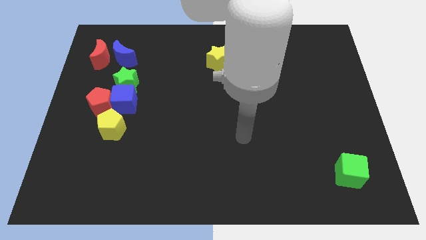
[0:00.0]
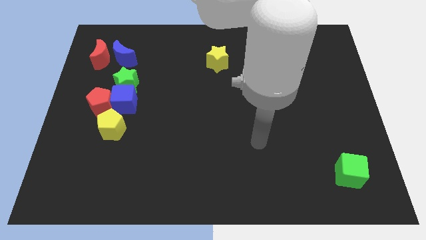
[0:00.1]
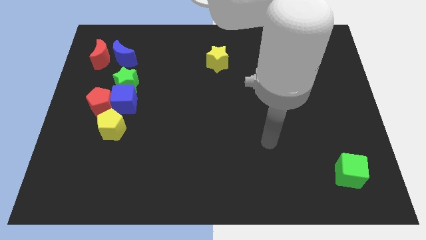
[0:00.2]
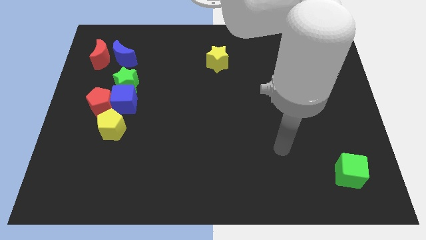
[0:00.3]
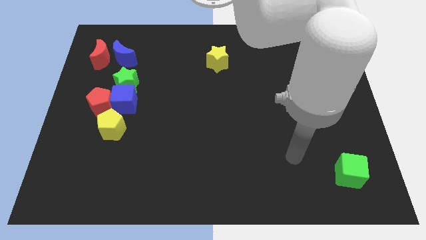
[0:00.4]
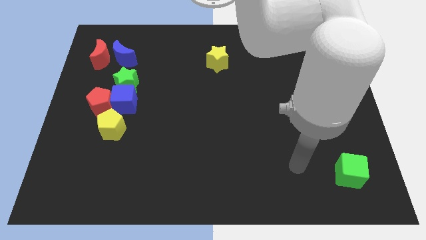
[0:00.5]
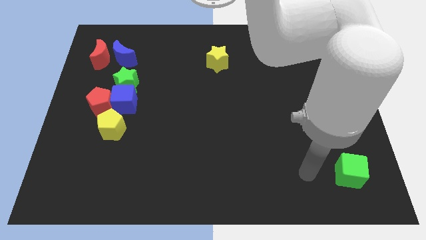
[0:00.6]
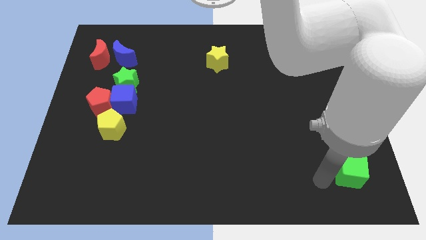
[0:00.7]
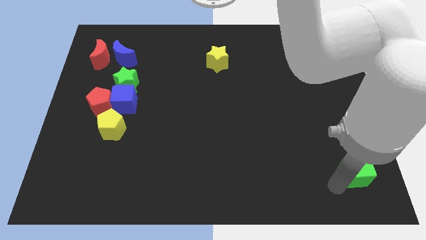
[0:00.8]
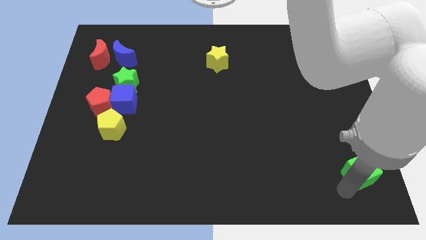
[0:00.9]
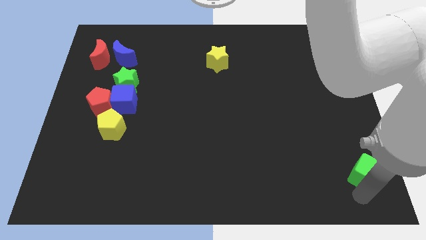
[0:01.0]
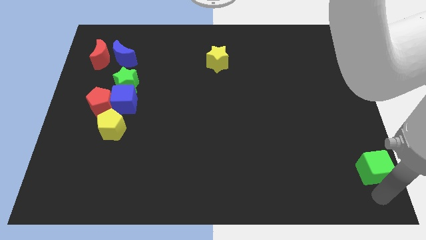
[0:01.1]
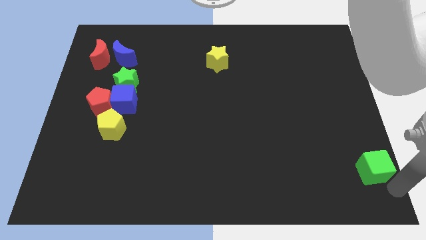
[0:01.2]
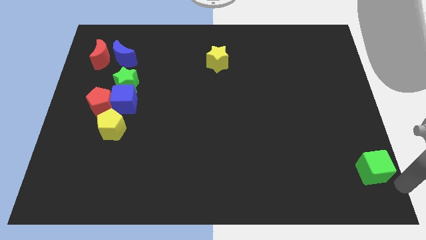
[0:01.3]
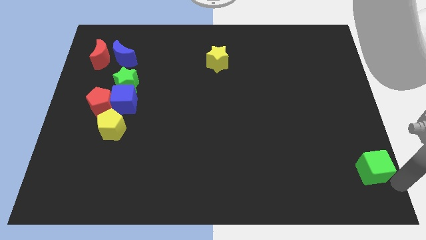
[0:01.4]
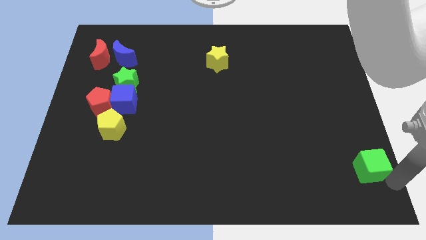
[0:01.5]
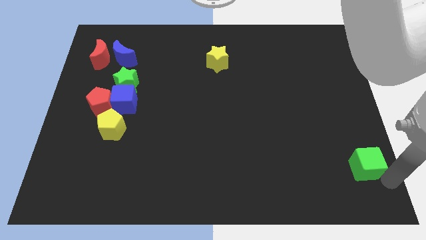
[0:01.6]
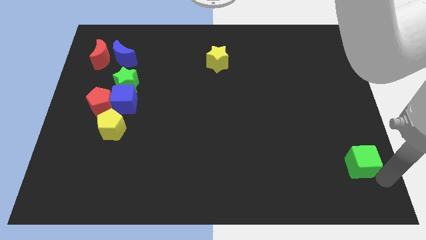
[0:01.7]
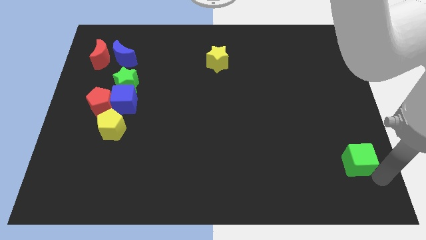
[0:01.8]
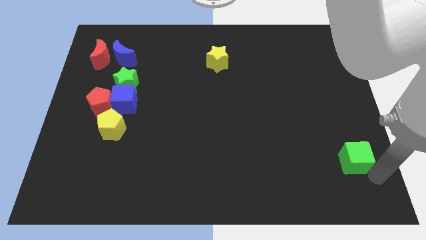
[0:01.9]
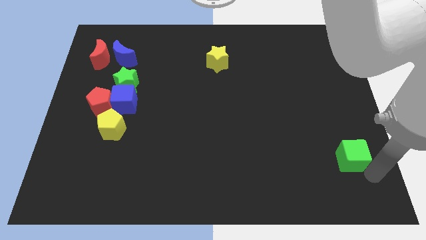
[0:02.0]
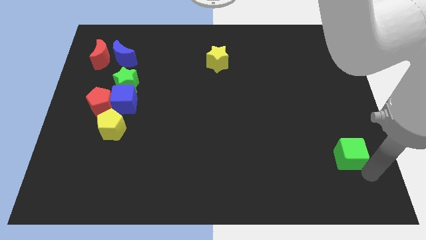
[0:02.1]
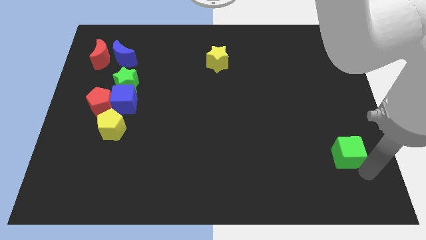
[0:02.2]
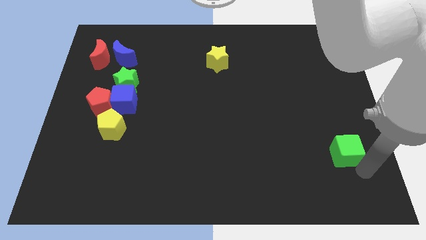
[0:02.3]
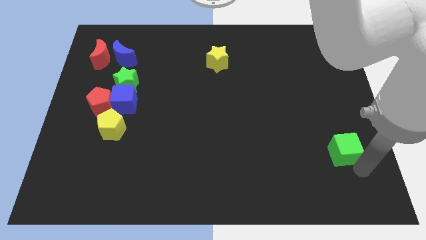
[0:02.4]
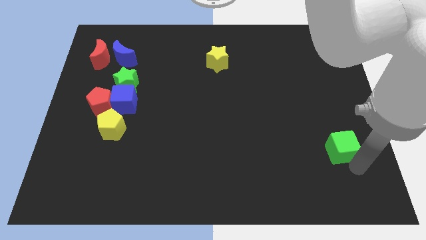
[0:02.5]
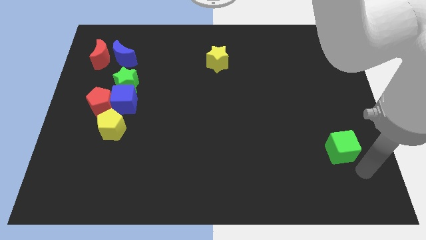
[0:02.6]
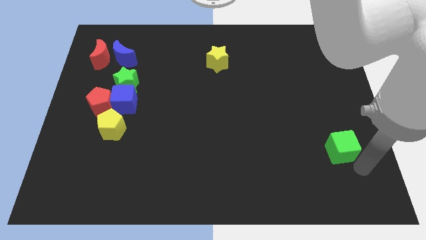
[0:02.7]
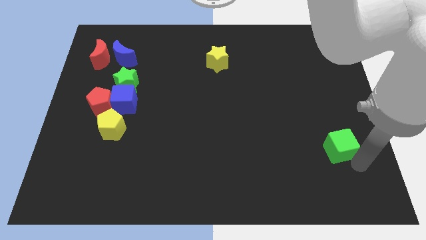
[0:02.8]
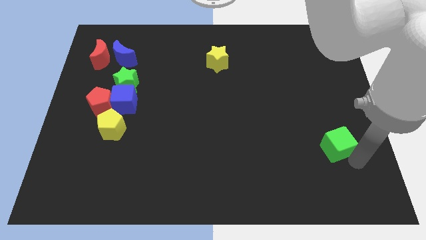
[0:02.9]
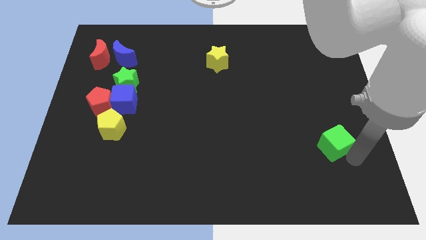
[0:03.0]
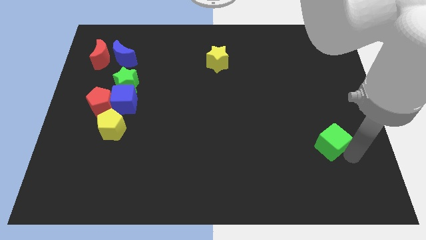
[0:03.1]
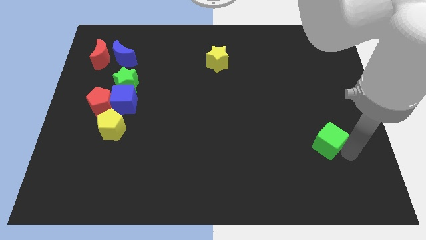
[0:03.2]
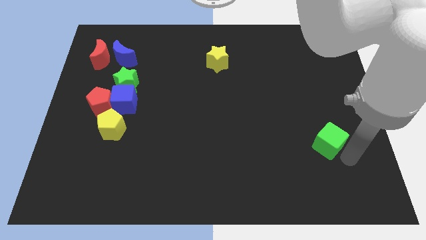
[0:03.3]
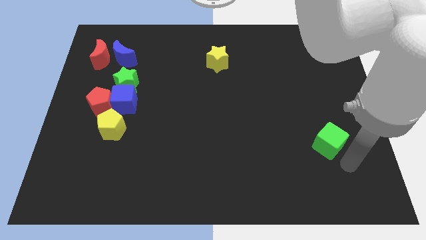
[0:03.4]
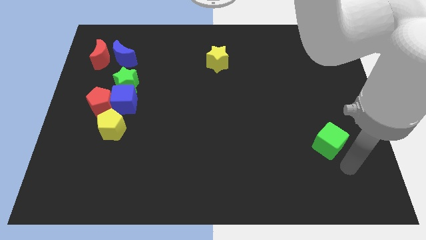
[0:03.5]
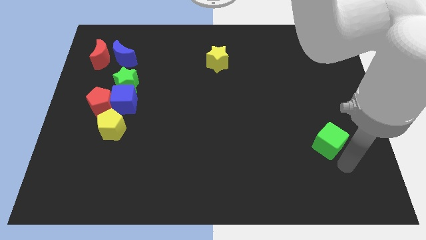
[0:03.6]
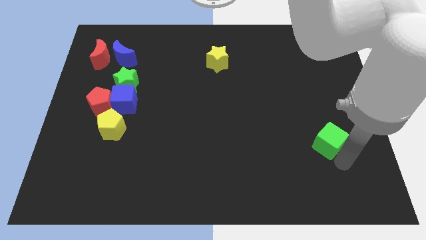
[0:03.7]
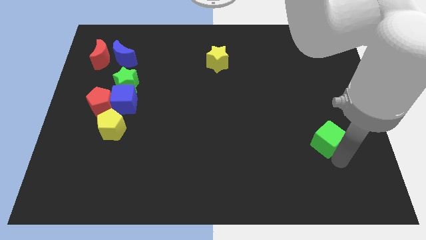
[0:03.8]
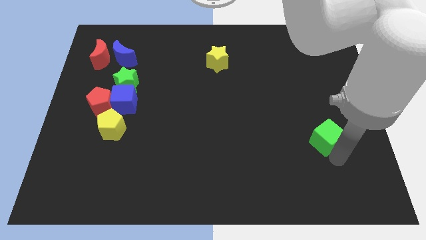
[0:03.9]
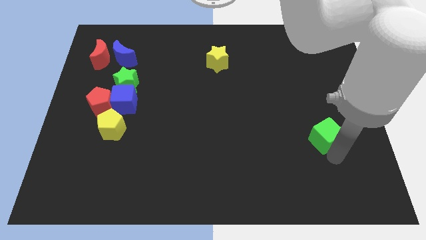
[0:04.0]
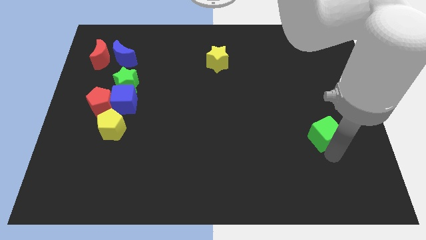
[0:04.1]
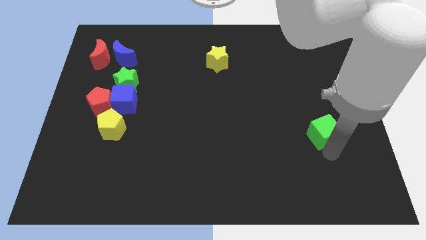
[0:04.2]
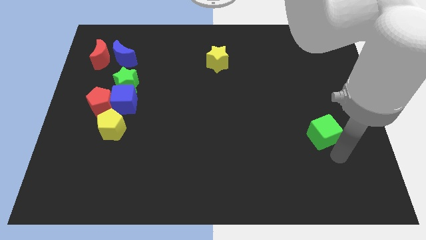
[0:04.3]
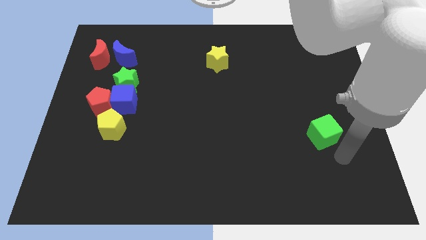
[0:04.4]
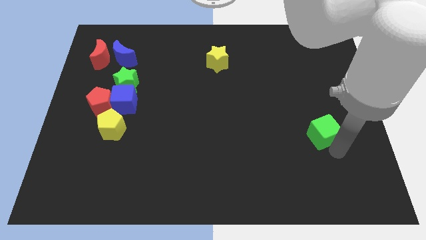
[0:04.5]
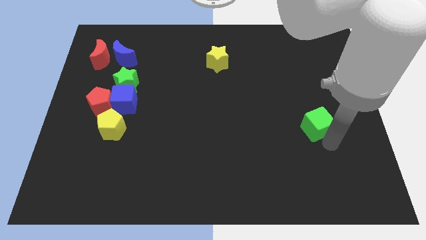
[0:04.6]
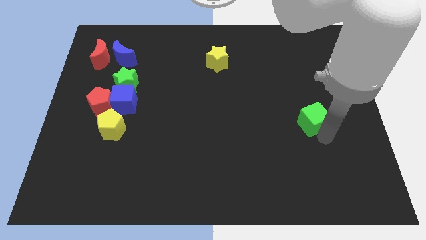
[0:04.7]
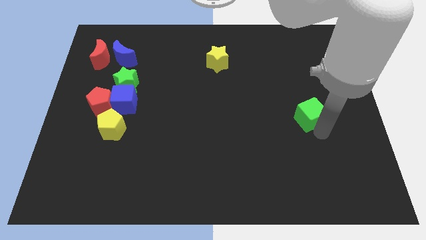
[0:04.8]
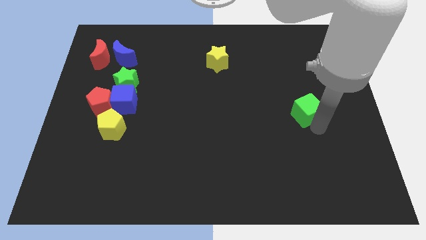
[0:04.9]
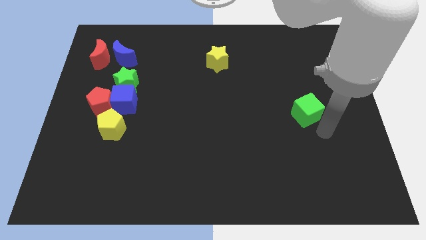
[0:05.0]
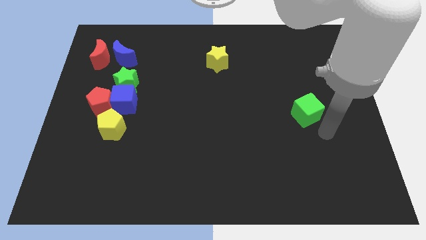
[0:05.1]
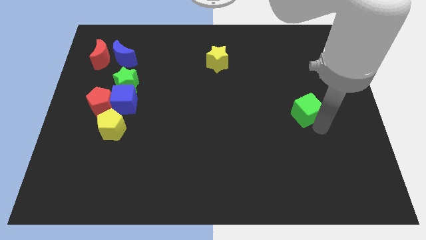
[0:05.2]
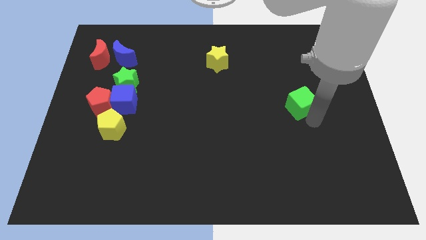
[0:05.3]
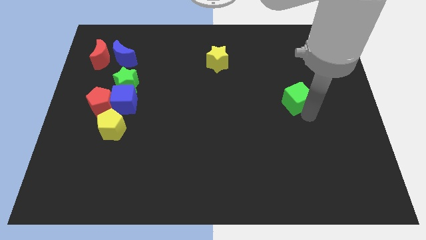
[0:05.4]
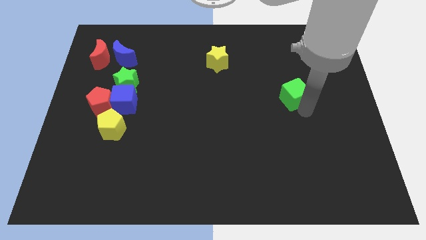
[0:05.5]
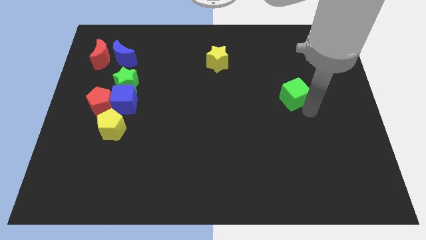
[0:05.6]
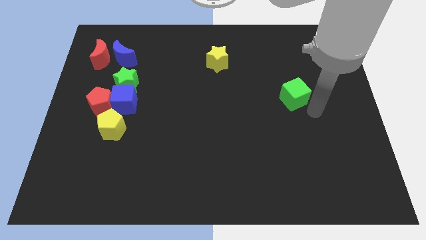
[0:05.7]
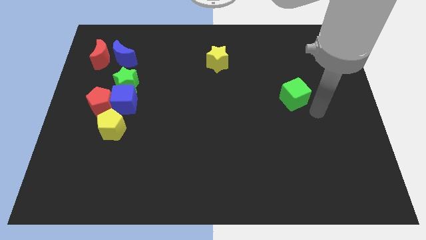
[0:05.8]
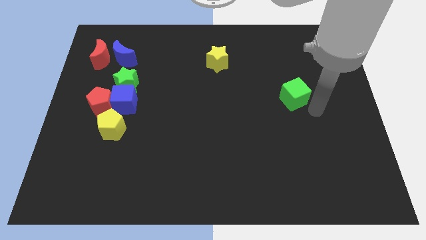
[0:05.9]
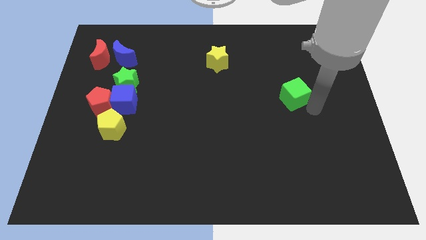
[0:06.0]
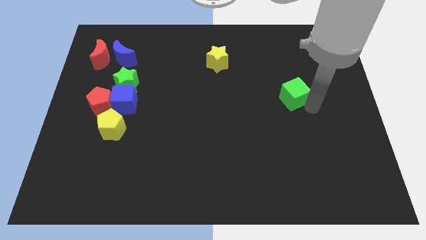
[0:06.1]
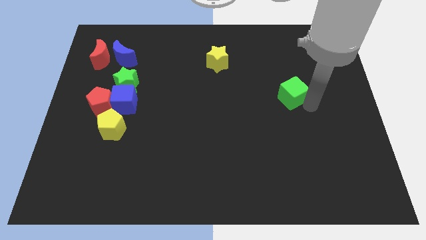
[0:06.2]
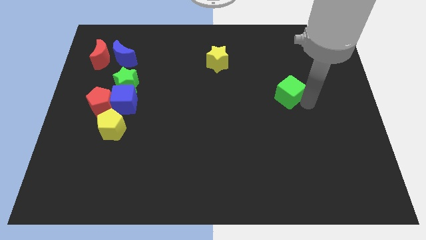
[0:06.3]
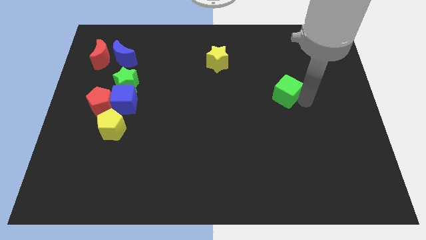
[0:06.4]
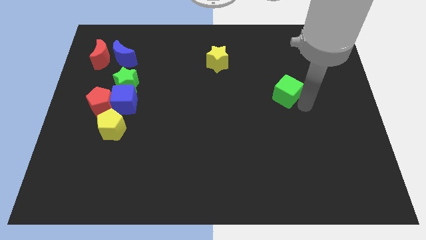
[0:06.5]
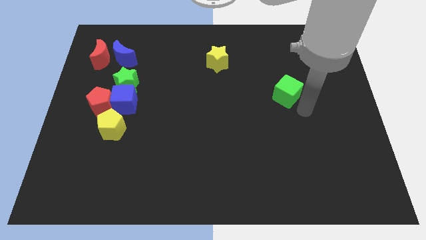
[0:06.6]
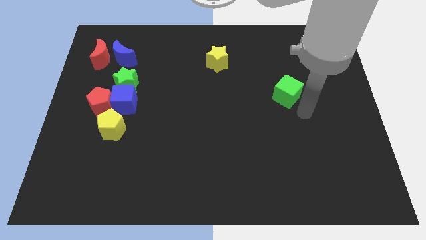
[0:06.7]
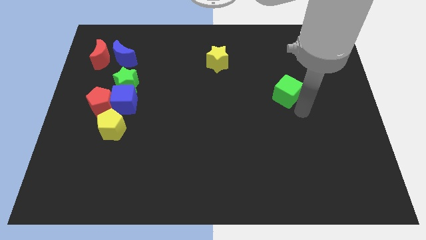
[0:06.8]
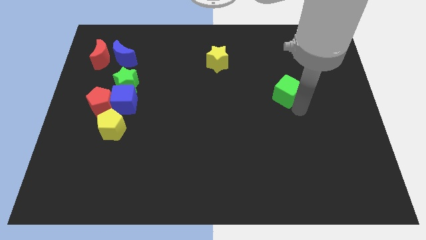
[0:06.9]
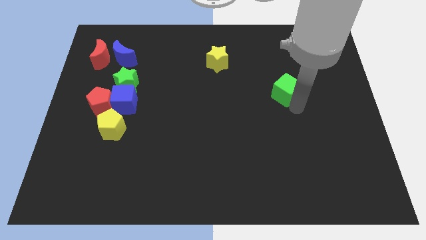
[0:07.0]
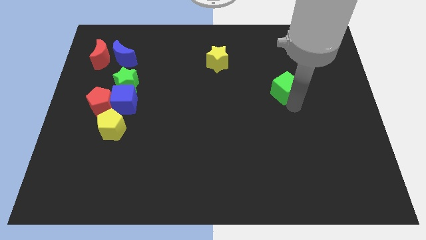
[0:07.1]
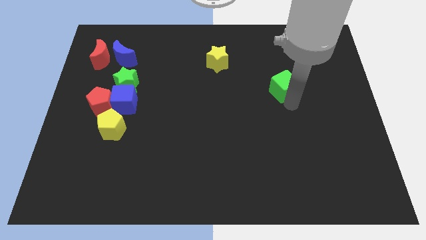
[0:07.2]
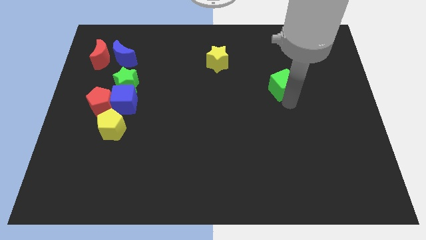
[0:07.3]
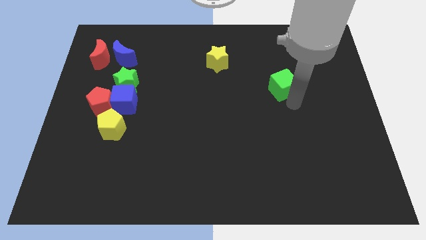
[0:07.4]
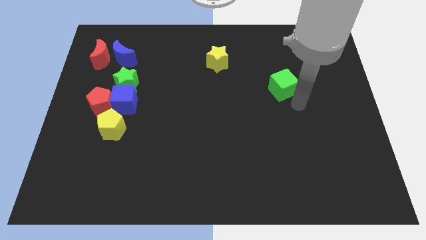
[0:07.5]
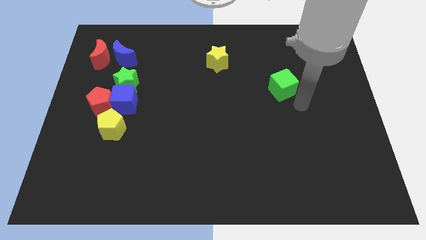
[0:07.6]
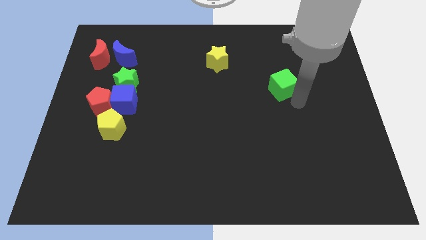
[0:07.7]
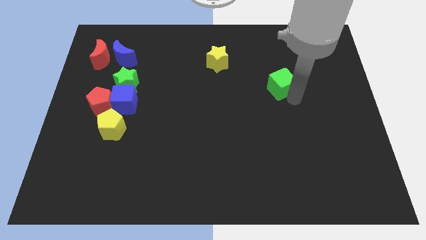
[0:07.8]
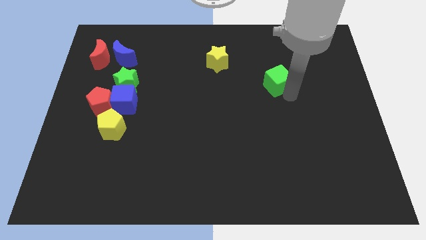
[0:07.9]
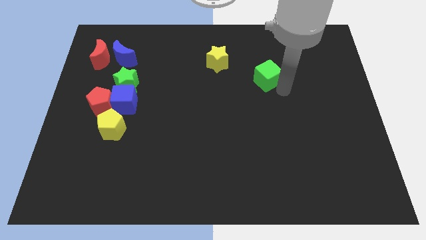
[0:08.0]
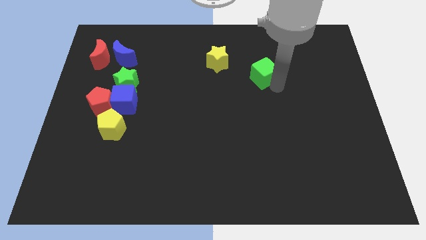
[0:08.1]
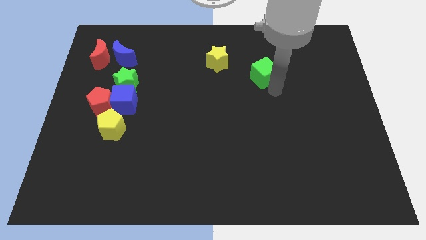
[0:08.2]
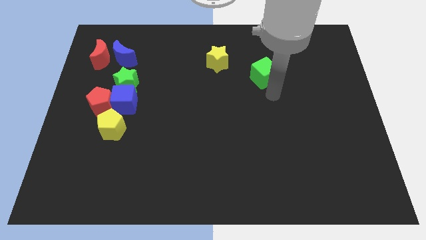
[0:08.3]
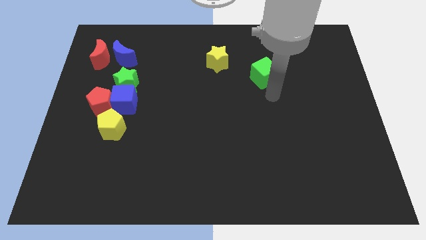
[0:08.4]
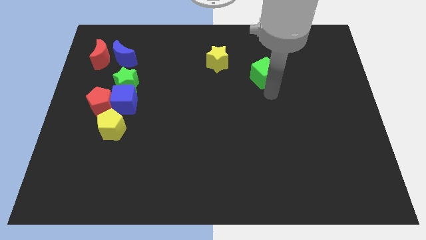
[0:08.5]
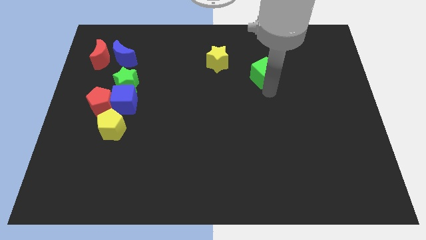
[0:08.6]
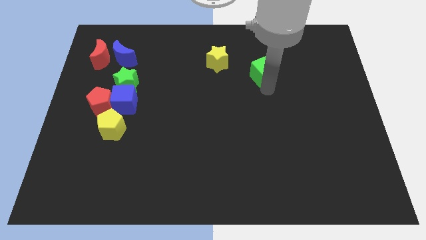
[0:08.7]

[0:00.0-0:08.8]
move the green cube right of the yellow star
